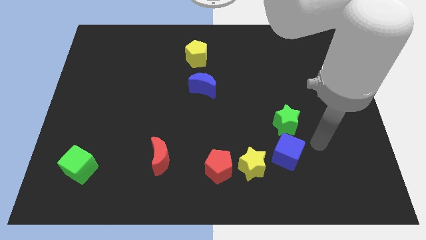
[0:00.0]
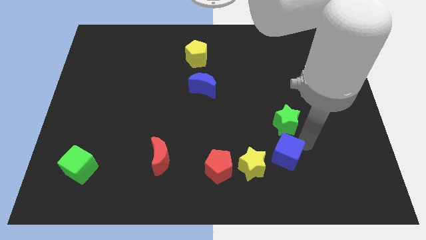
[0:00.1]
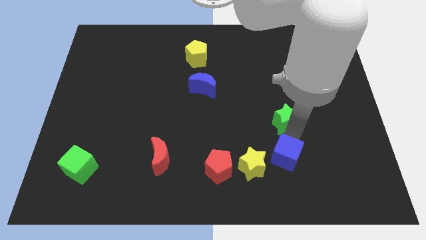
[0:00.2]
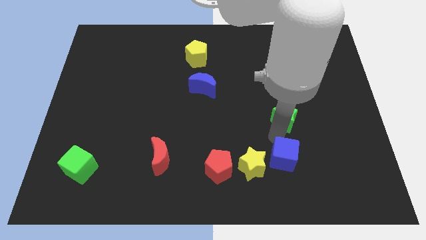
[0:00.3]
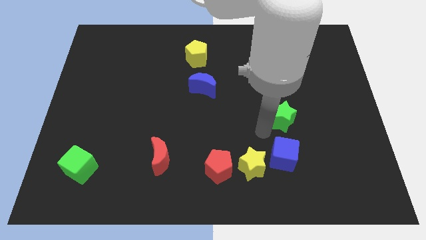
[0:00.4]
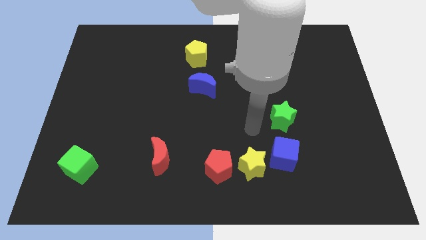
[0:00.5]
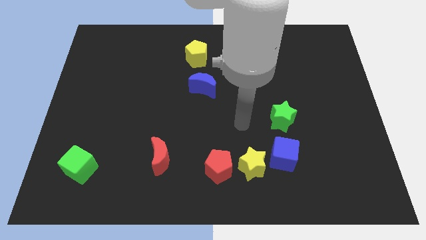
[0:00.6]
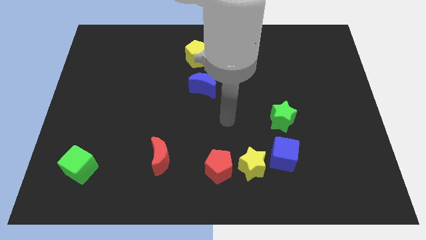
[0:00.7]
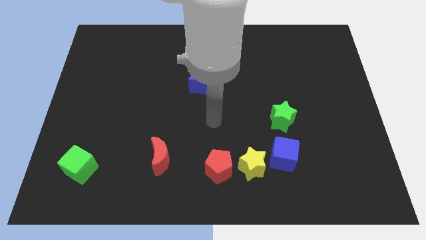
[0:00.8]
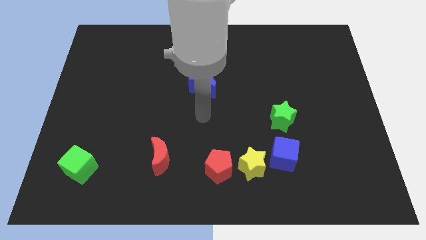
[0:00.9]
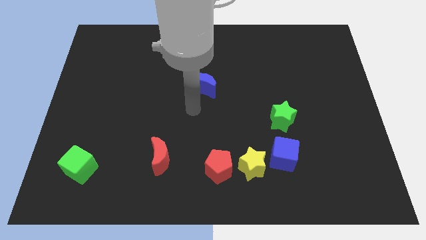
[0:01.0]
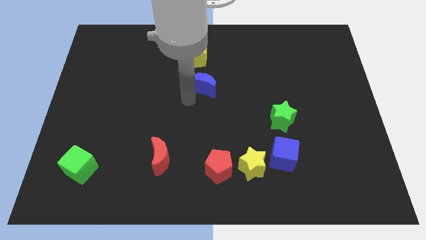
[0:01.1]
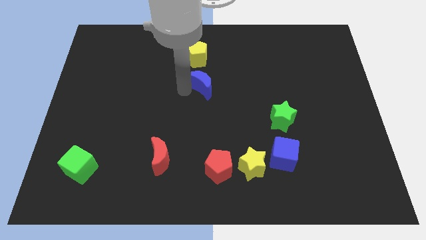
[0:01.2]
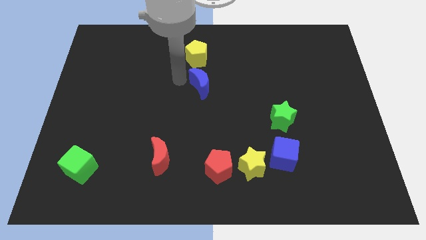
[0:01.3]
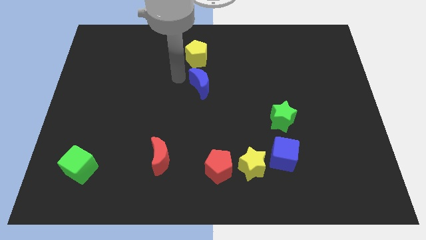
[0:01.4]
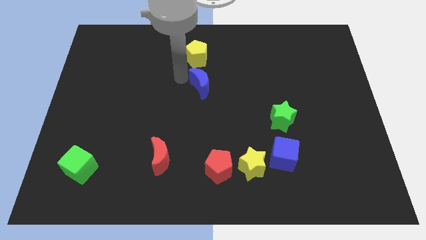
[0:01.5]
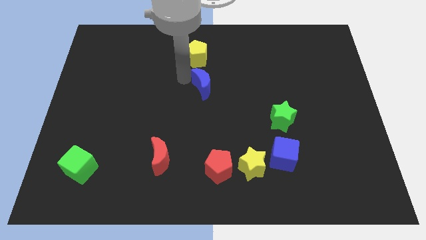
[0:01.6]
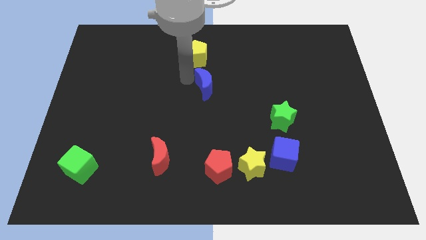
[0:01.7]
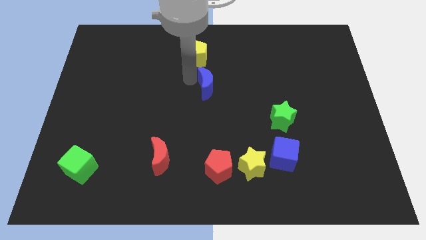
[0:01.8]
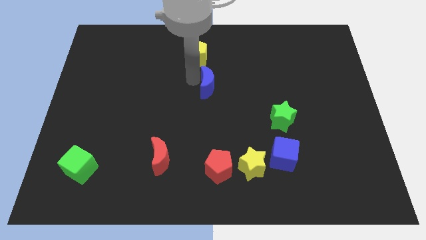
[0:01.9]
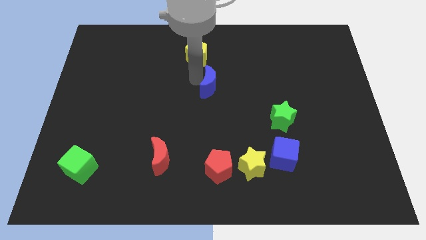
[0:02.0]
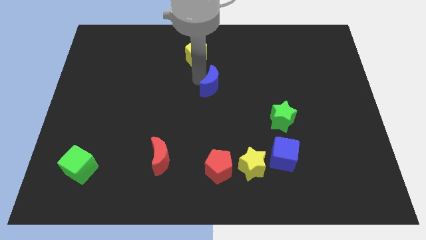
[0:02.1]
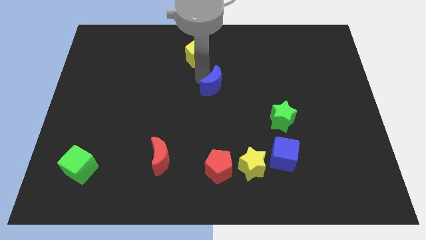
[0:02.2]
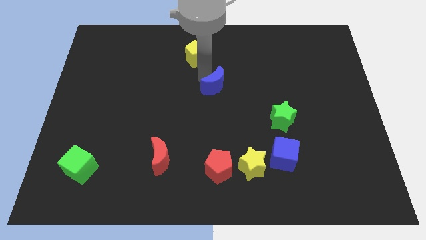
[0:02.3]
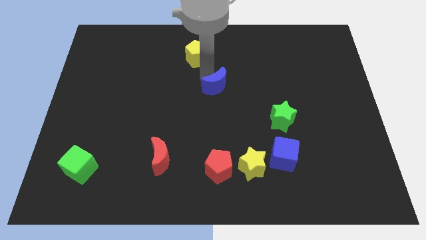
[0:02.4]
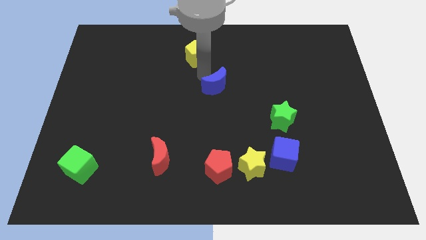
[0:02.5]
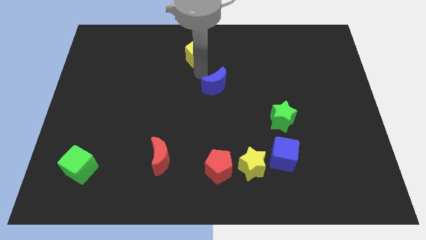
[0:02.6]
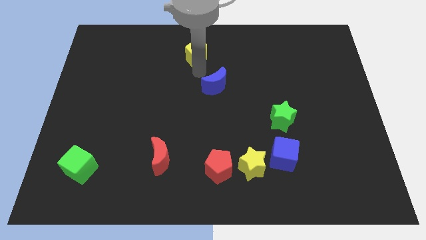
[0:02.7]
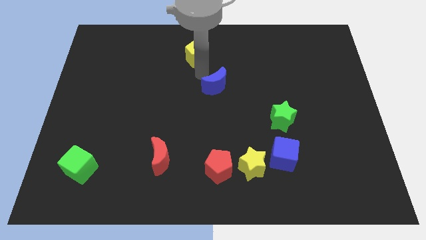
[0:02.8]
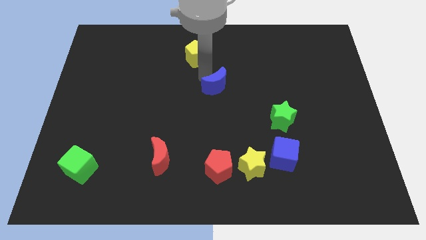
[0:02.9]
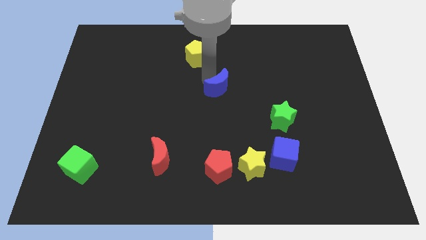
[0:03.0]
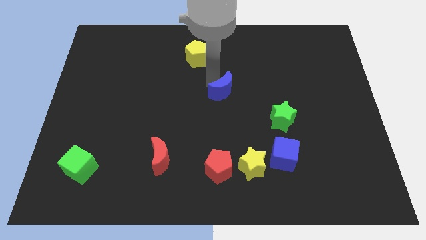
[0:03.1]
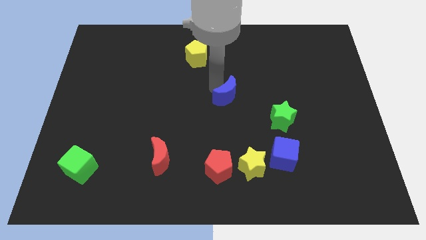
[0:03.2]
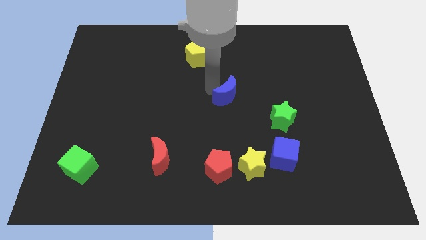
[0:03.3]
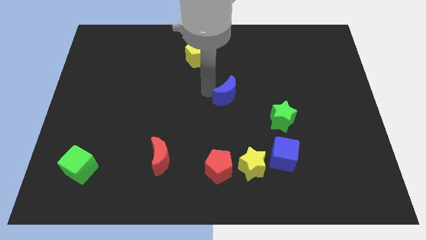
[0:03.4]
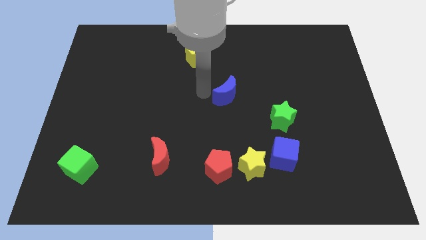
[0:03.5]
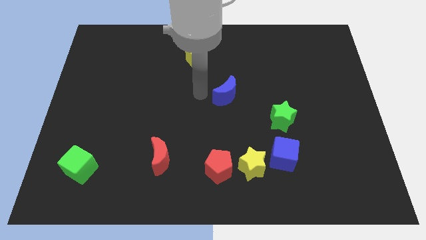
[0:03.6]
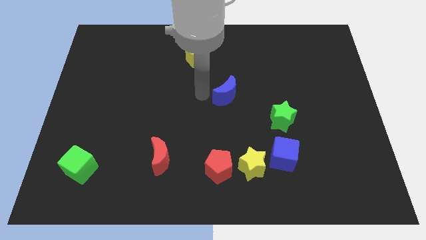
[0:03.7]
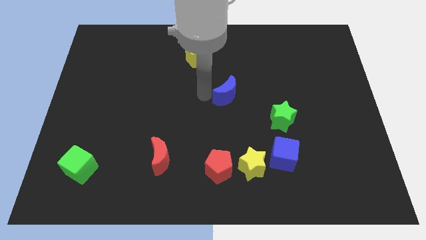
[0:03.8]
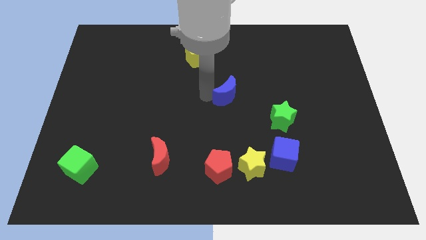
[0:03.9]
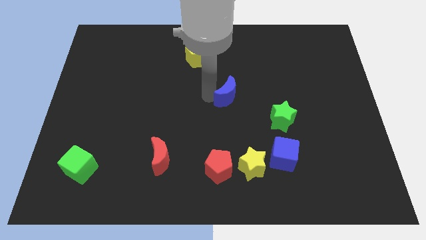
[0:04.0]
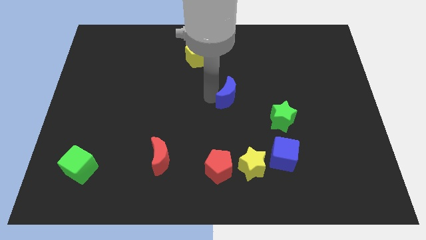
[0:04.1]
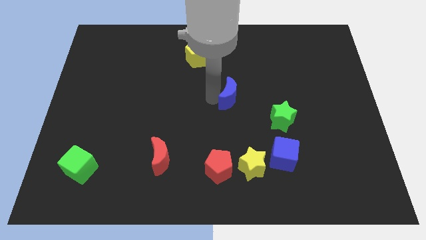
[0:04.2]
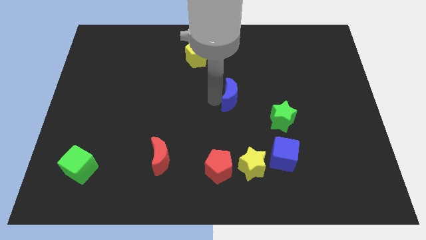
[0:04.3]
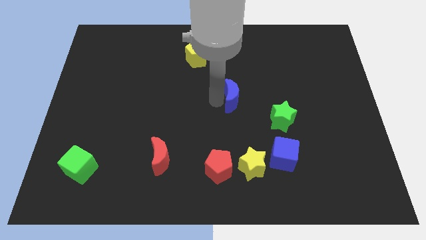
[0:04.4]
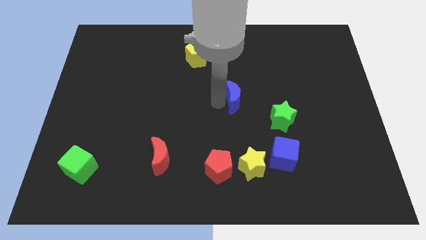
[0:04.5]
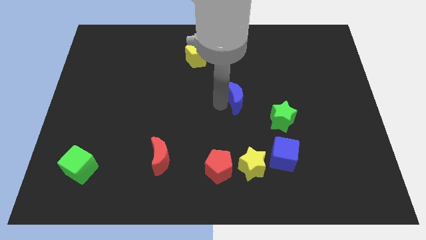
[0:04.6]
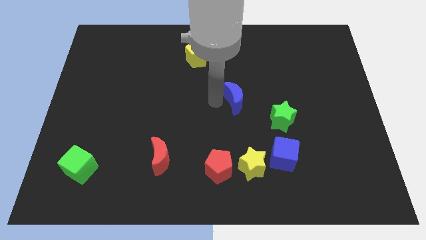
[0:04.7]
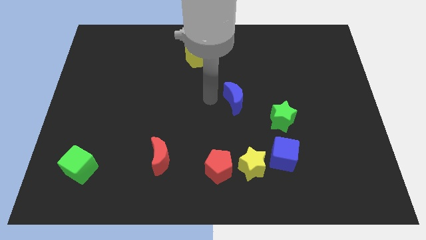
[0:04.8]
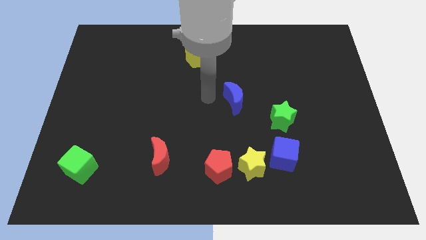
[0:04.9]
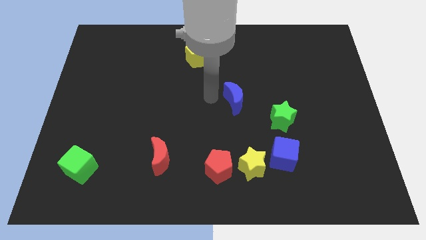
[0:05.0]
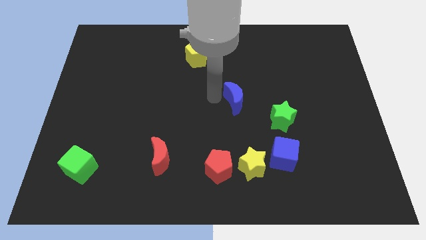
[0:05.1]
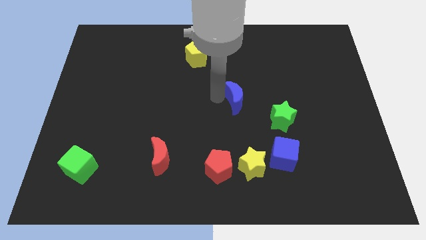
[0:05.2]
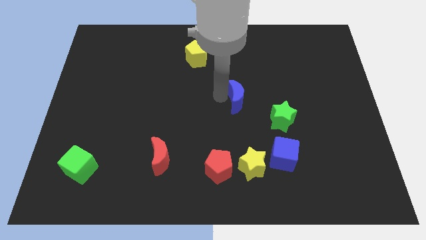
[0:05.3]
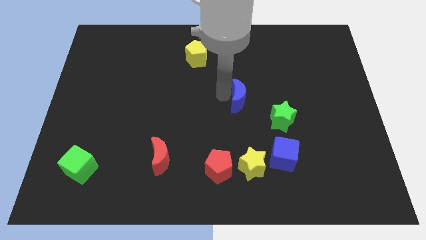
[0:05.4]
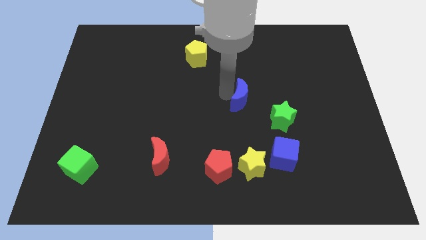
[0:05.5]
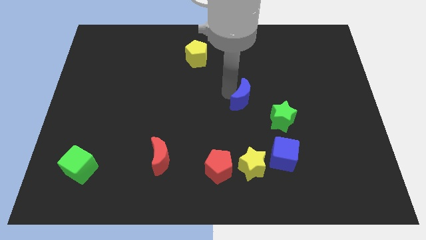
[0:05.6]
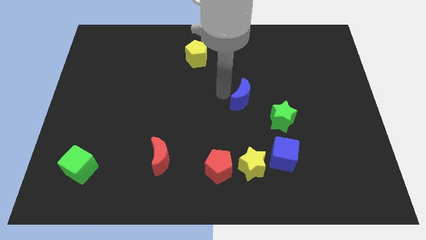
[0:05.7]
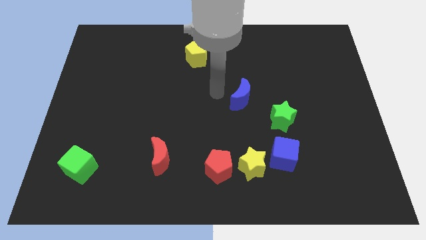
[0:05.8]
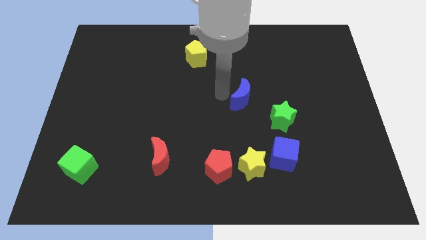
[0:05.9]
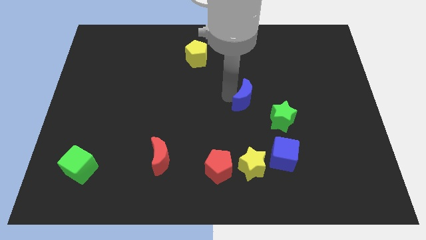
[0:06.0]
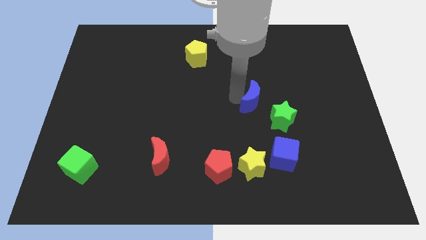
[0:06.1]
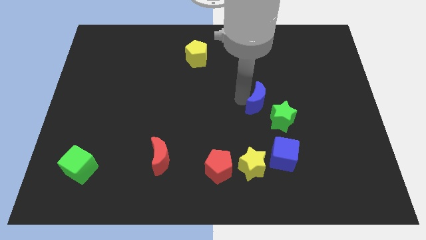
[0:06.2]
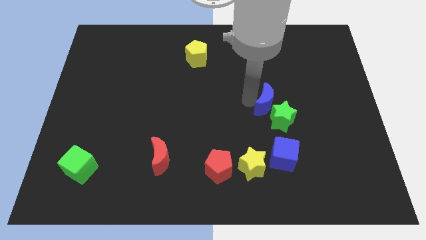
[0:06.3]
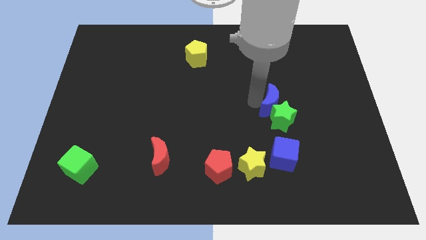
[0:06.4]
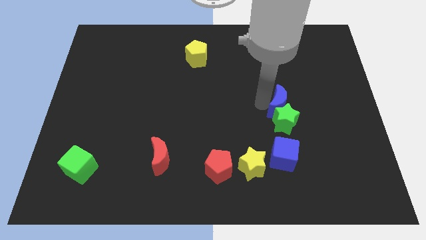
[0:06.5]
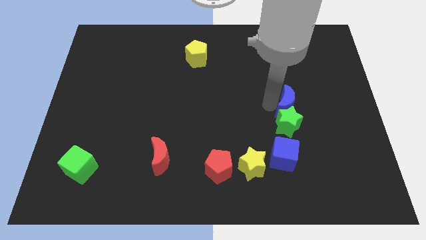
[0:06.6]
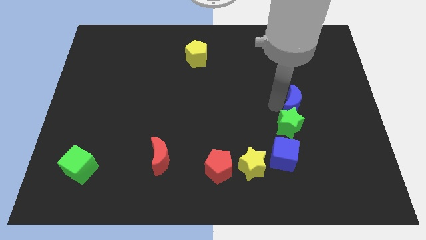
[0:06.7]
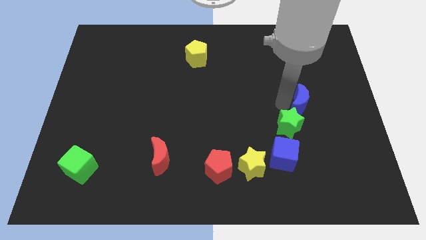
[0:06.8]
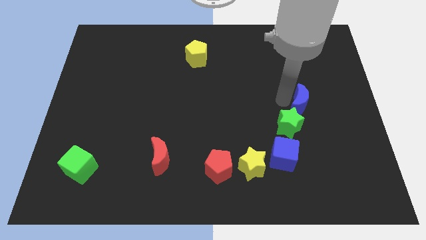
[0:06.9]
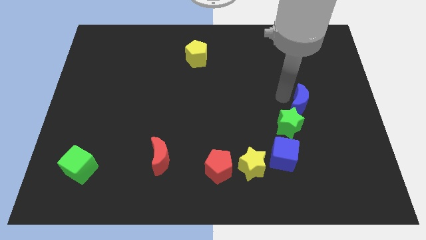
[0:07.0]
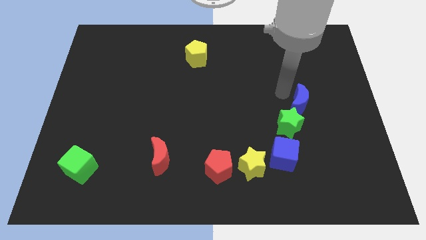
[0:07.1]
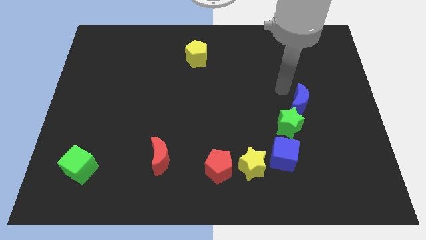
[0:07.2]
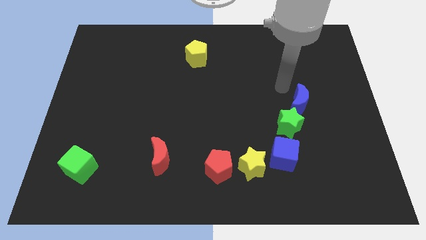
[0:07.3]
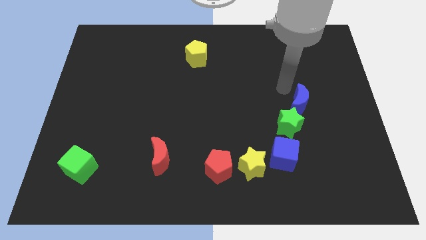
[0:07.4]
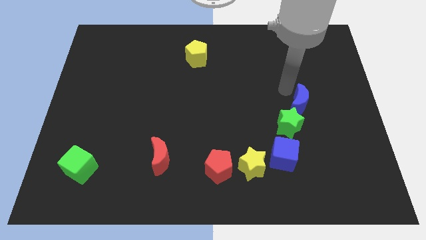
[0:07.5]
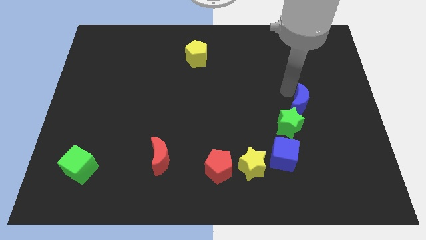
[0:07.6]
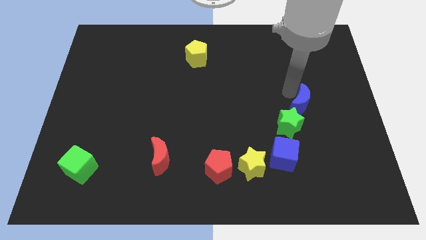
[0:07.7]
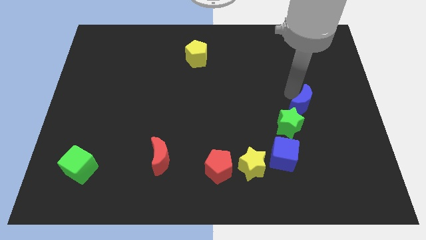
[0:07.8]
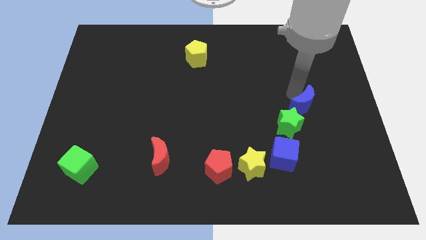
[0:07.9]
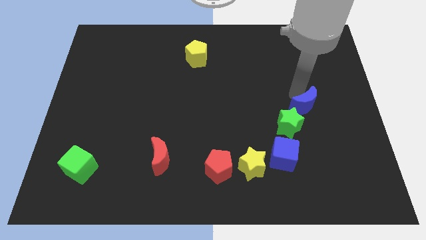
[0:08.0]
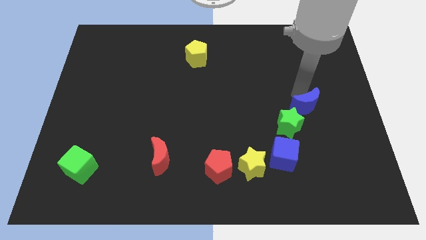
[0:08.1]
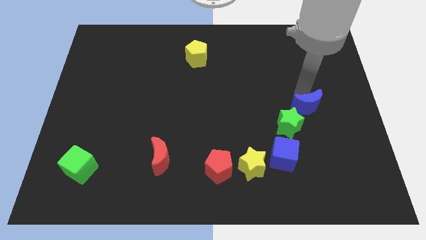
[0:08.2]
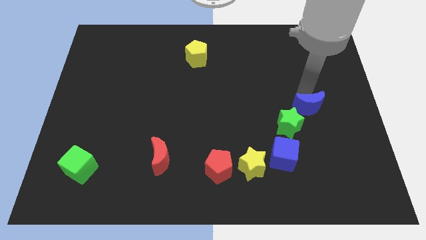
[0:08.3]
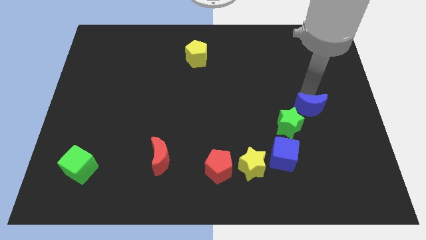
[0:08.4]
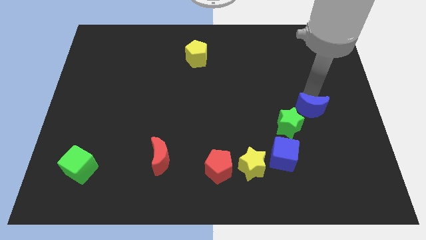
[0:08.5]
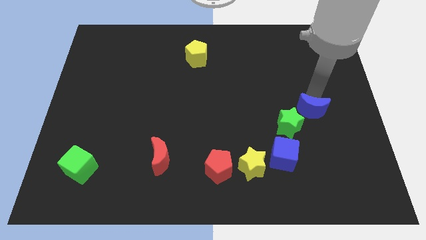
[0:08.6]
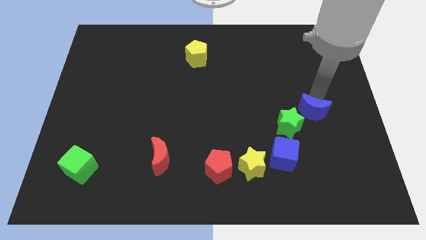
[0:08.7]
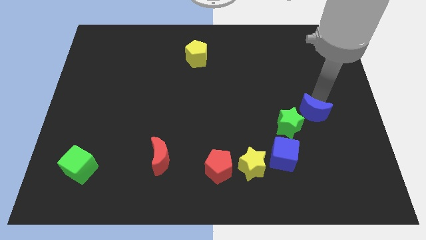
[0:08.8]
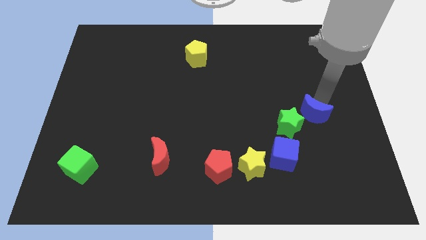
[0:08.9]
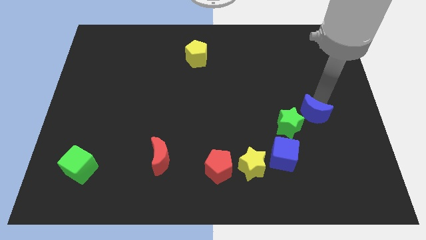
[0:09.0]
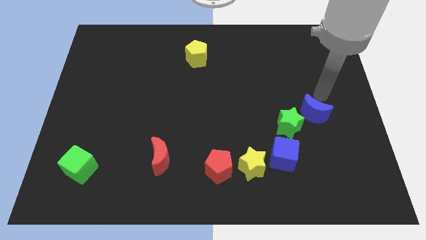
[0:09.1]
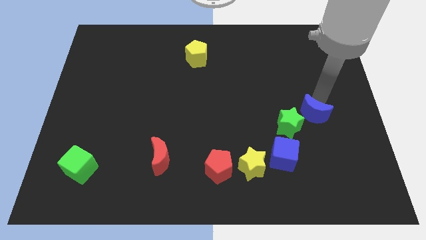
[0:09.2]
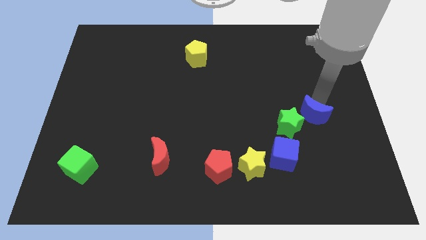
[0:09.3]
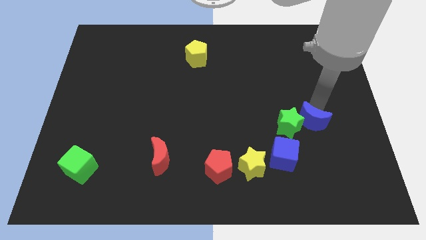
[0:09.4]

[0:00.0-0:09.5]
put the blue moon to the top right side of the blue cube
